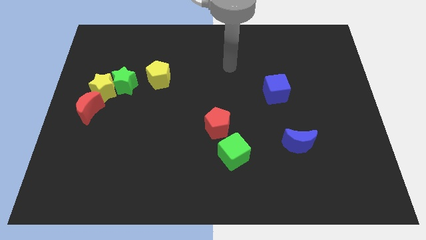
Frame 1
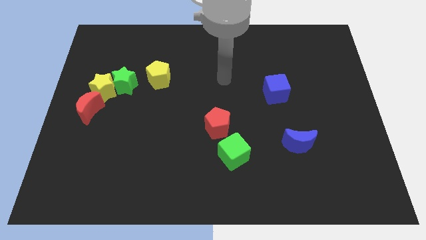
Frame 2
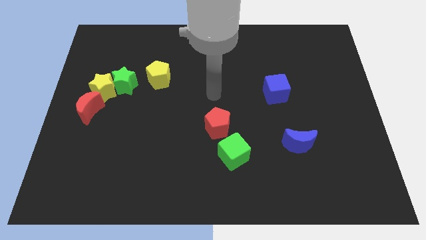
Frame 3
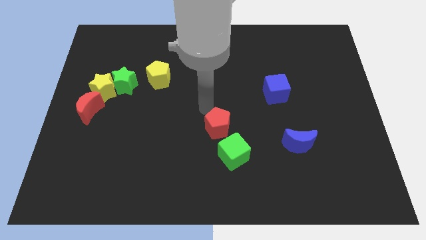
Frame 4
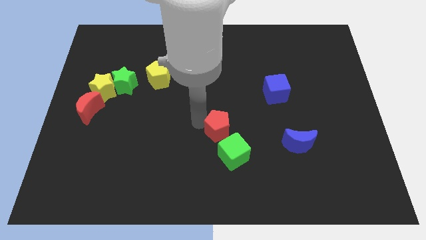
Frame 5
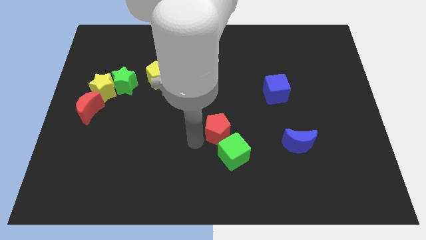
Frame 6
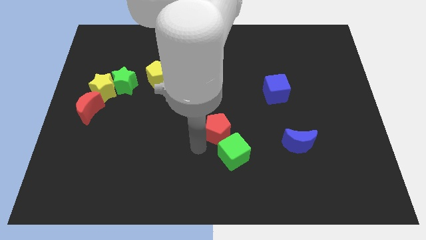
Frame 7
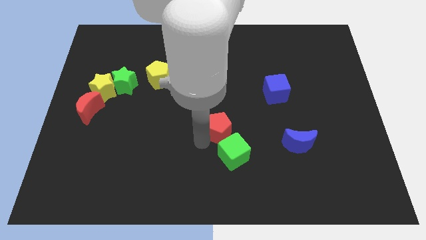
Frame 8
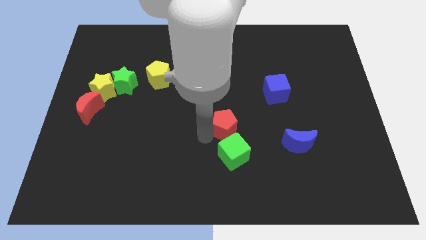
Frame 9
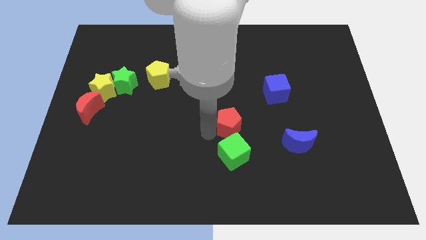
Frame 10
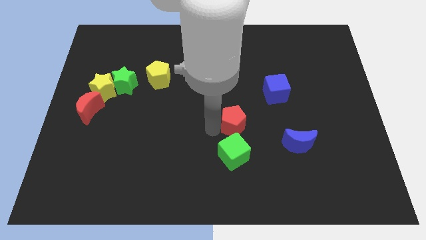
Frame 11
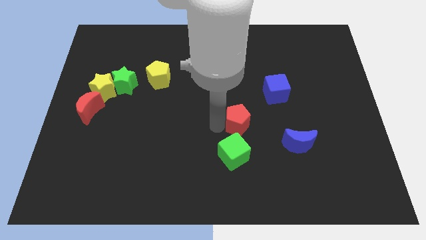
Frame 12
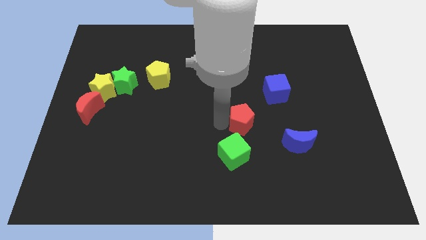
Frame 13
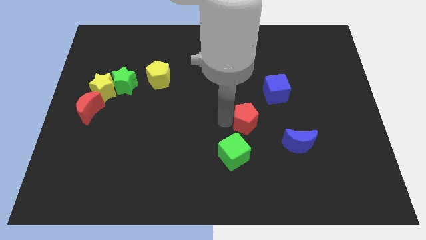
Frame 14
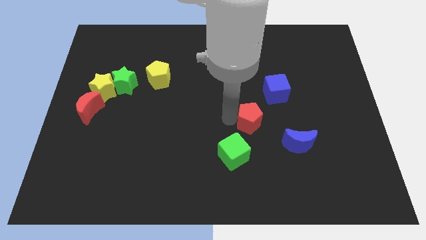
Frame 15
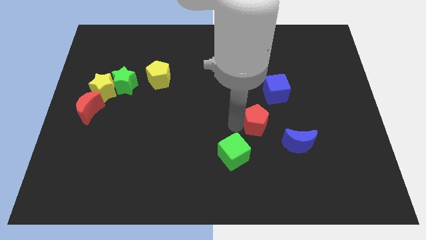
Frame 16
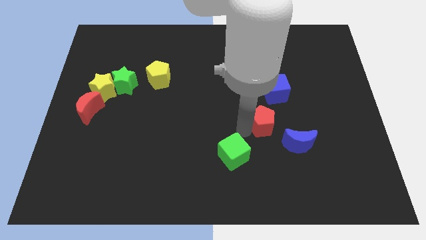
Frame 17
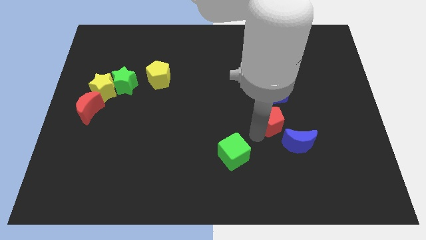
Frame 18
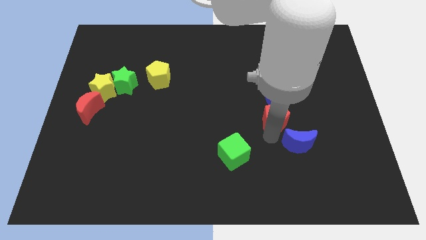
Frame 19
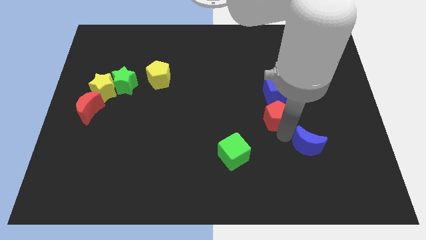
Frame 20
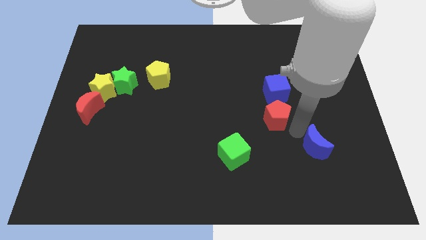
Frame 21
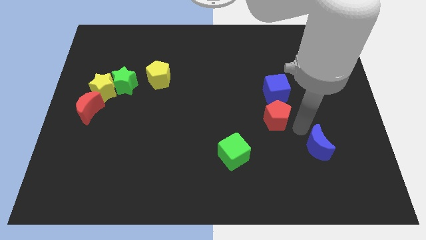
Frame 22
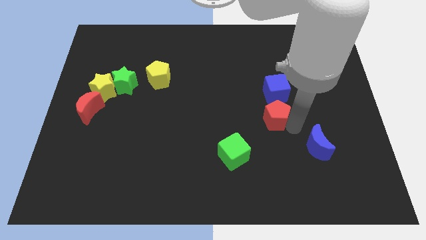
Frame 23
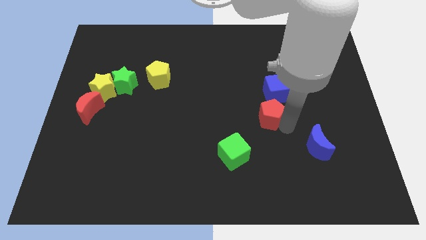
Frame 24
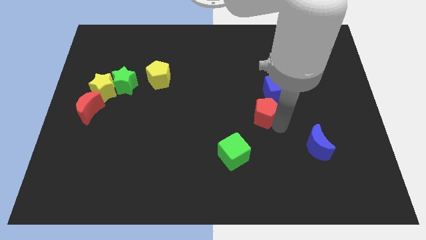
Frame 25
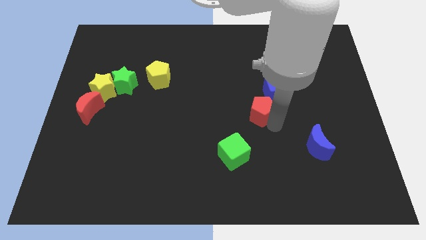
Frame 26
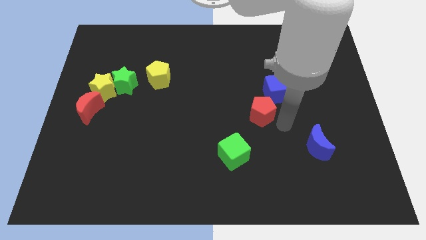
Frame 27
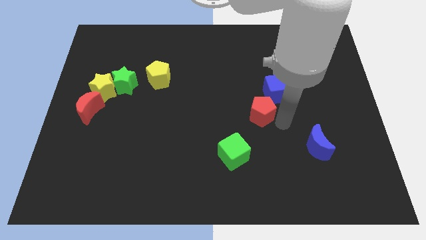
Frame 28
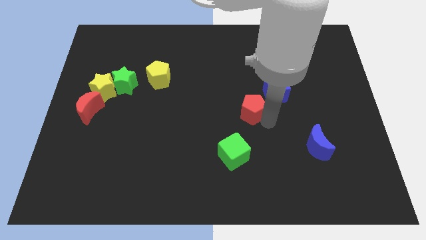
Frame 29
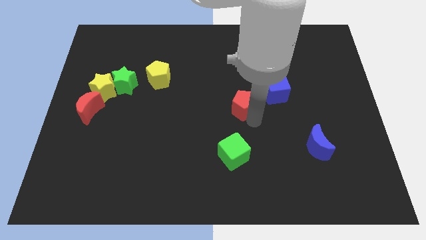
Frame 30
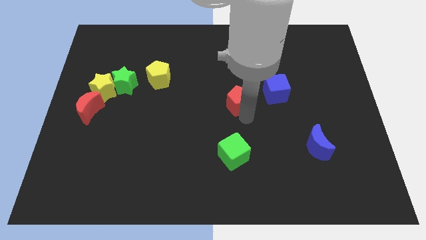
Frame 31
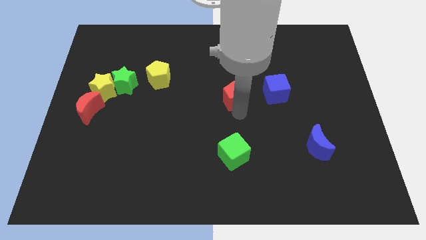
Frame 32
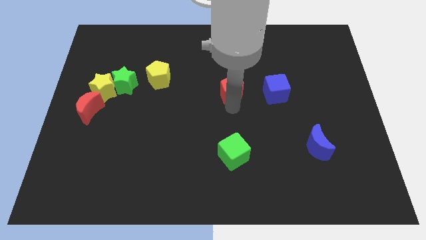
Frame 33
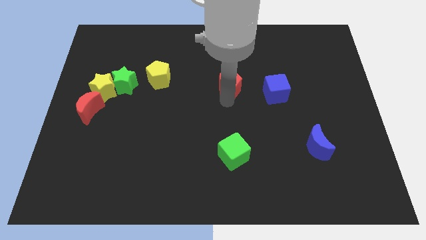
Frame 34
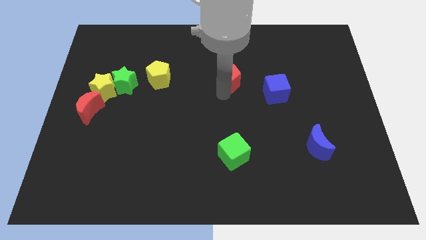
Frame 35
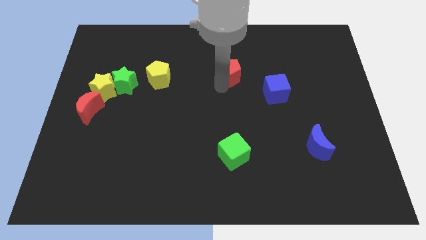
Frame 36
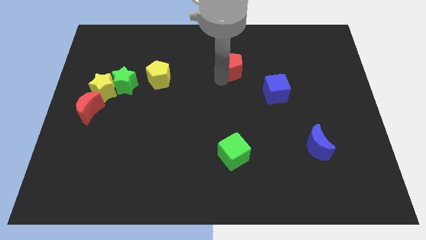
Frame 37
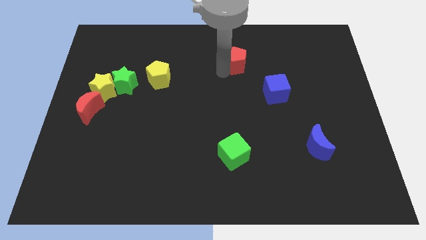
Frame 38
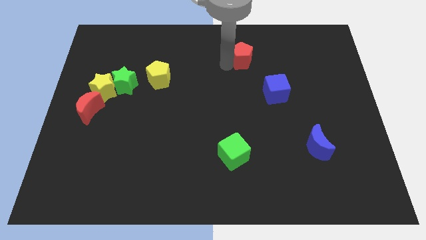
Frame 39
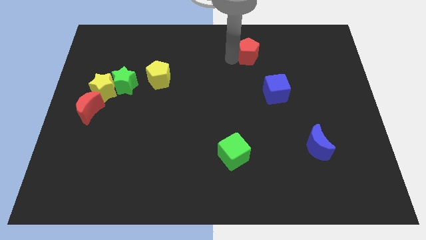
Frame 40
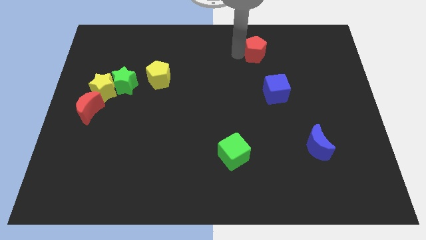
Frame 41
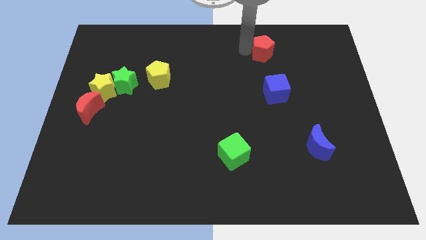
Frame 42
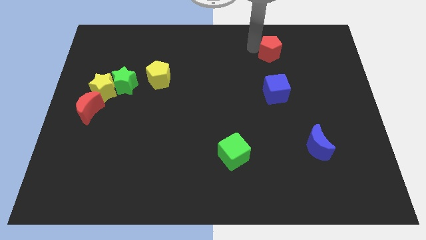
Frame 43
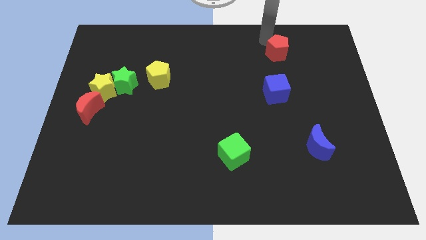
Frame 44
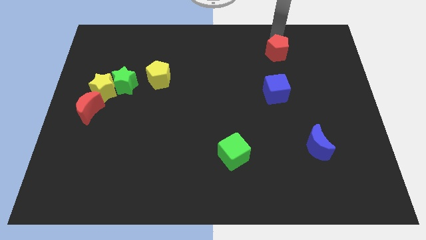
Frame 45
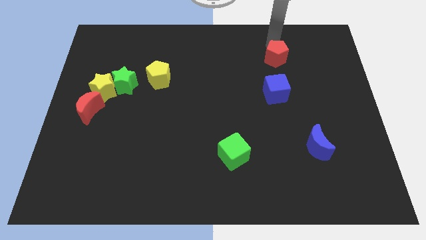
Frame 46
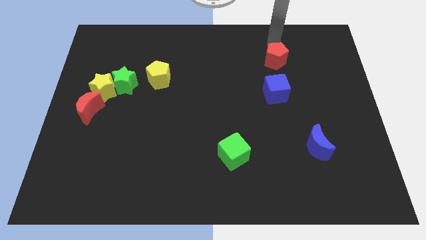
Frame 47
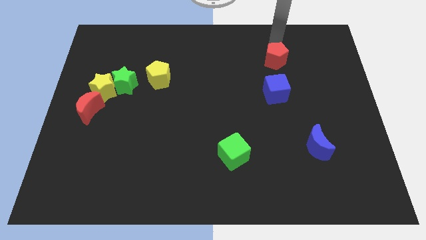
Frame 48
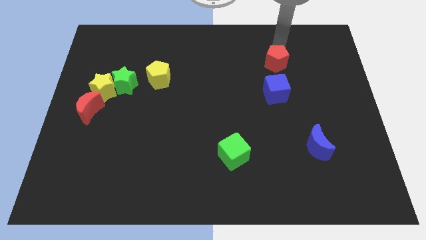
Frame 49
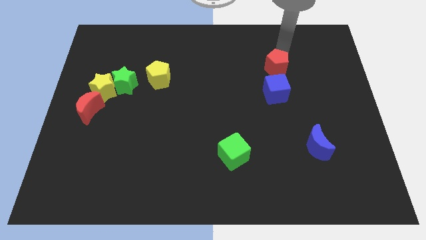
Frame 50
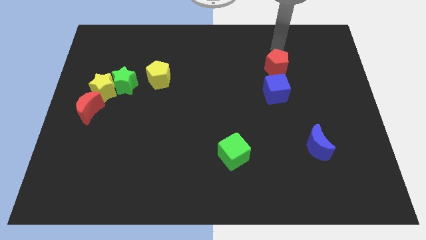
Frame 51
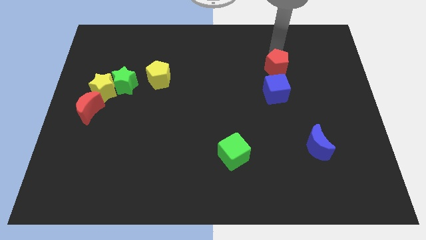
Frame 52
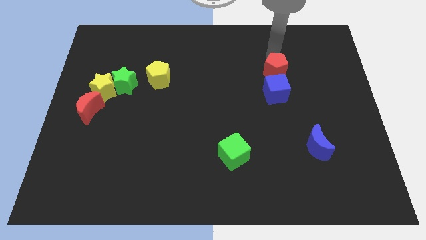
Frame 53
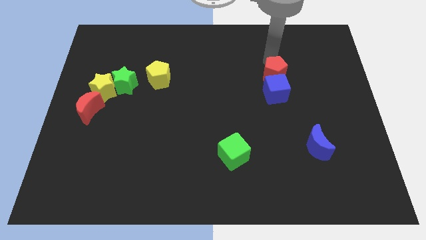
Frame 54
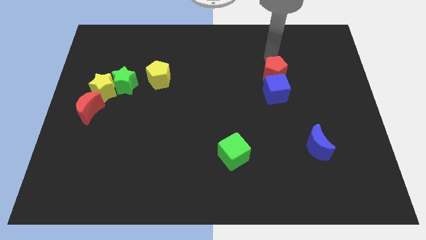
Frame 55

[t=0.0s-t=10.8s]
slide the red pentagon close to the blue cube

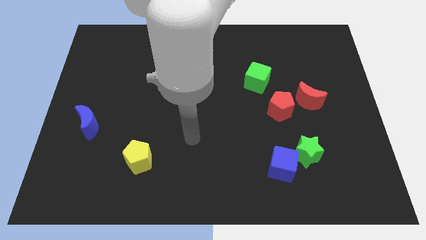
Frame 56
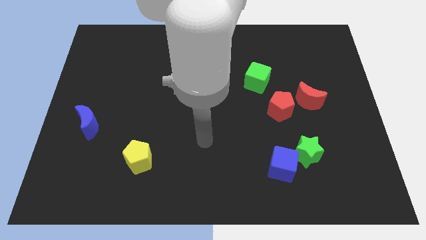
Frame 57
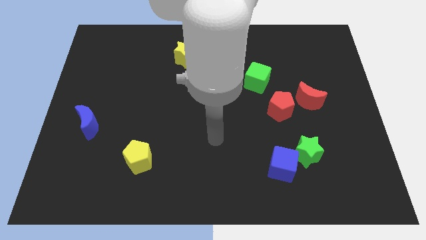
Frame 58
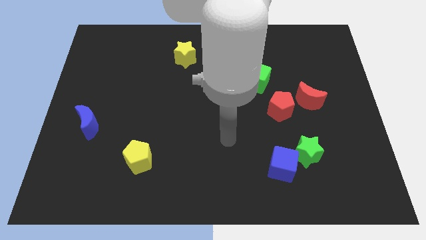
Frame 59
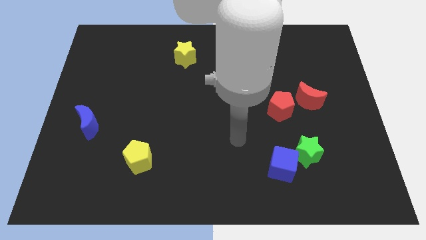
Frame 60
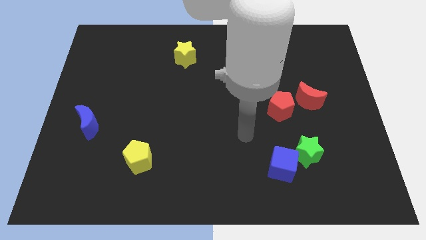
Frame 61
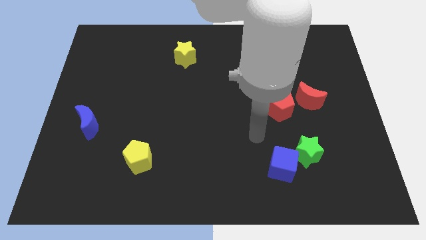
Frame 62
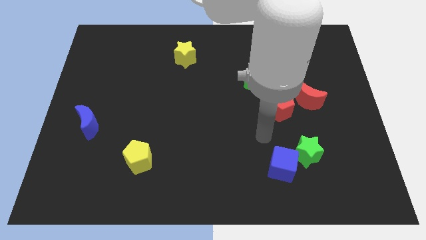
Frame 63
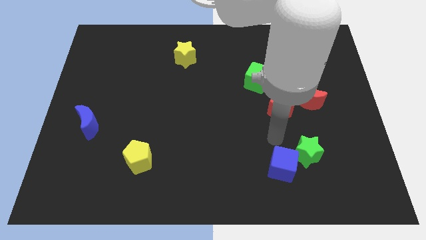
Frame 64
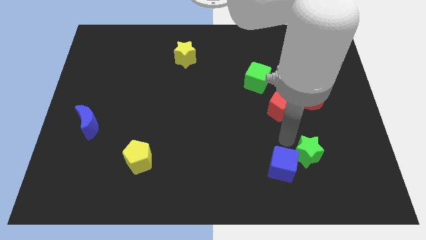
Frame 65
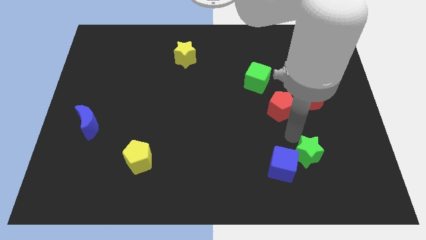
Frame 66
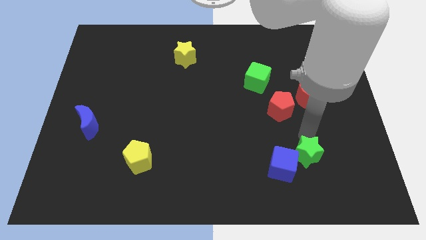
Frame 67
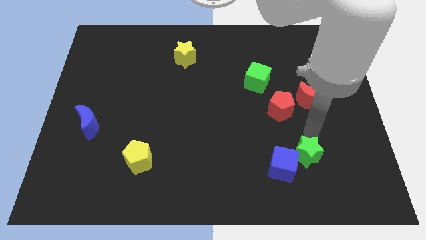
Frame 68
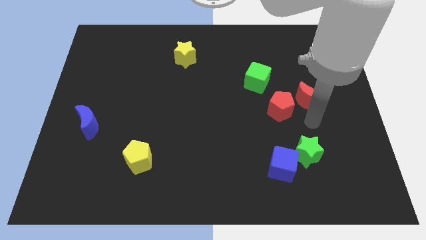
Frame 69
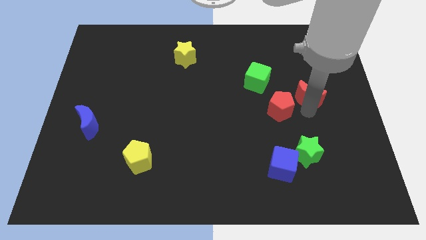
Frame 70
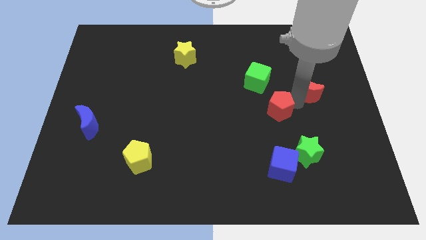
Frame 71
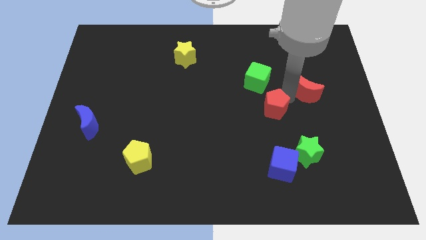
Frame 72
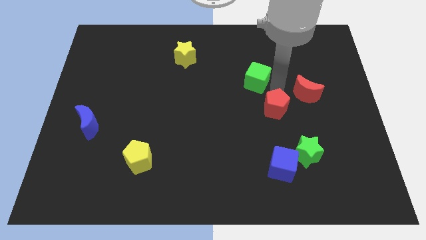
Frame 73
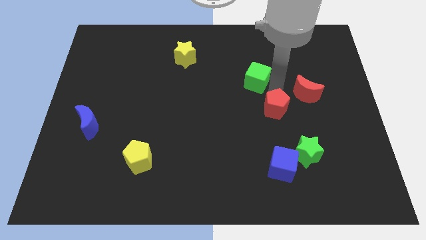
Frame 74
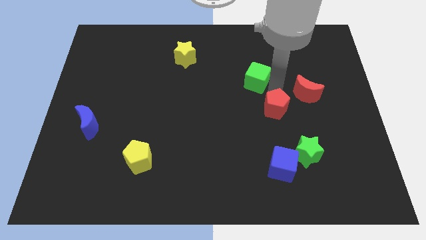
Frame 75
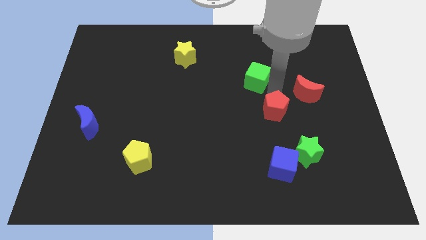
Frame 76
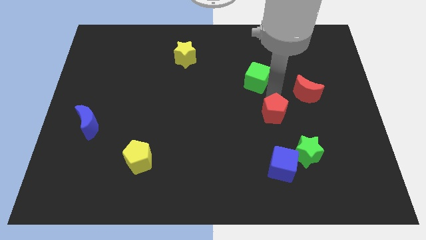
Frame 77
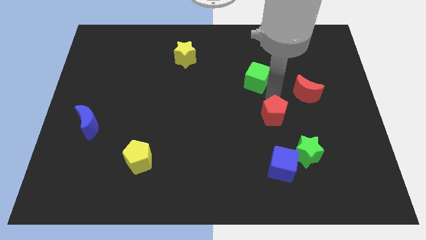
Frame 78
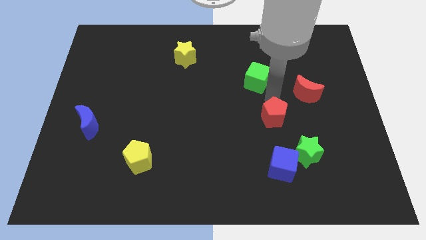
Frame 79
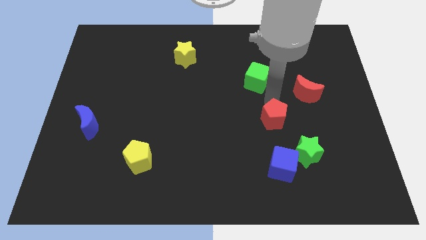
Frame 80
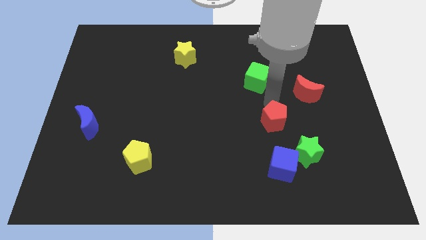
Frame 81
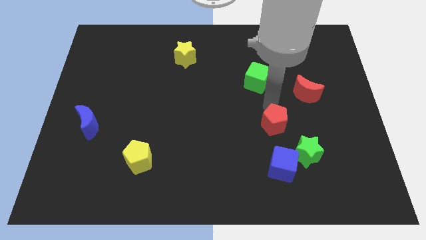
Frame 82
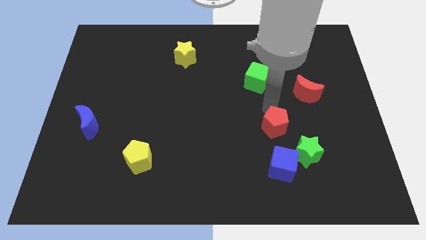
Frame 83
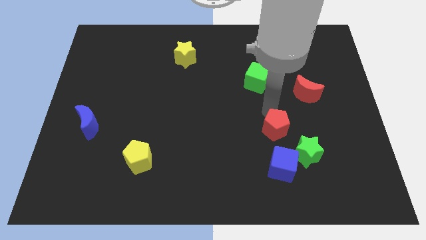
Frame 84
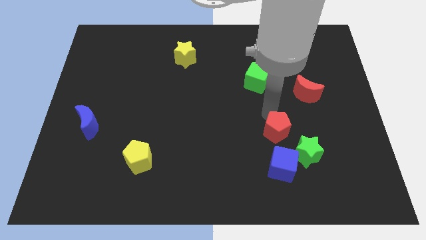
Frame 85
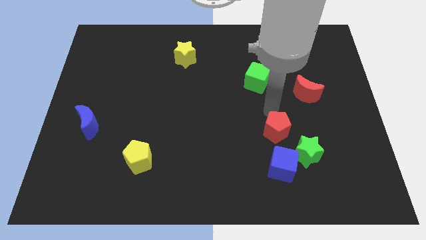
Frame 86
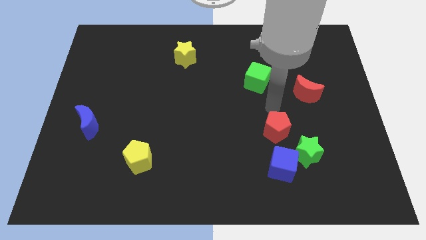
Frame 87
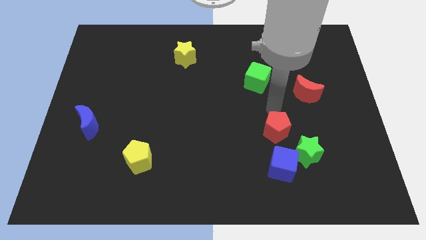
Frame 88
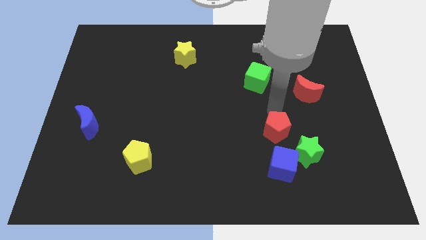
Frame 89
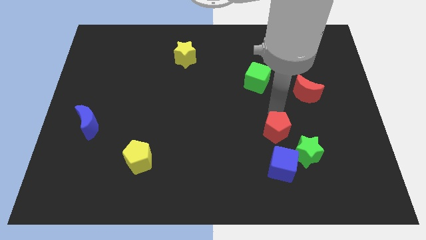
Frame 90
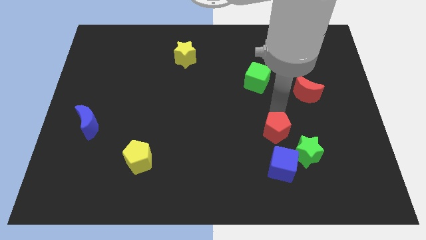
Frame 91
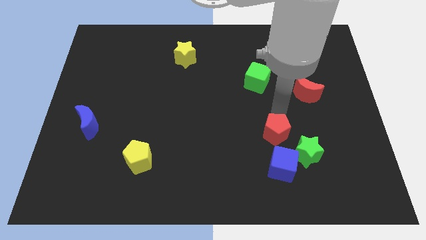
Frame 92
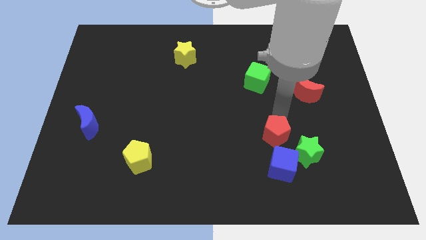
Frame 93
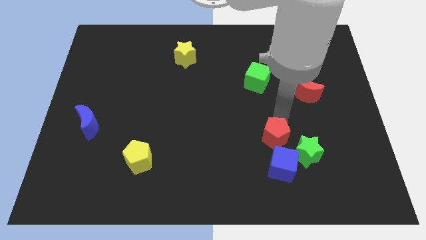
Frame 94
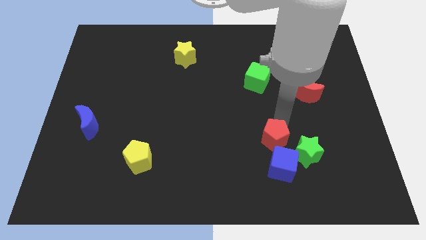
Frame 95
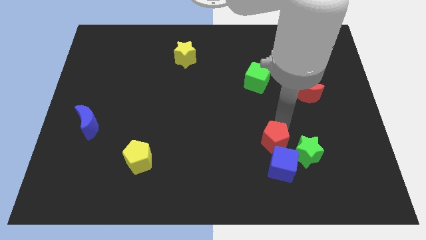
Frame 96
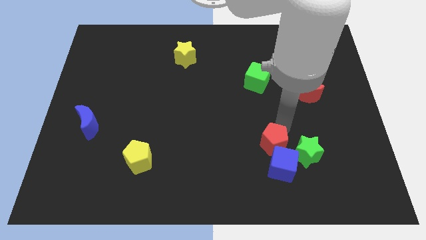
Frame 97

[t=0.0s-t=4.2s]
move the red pentagon close to the blue cube
